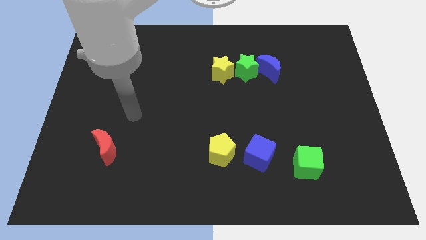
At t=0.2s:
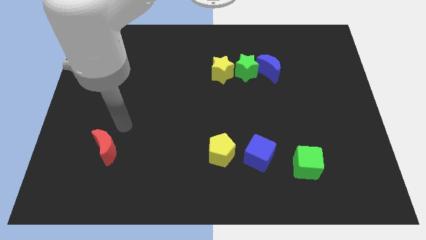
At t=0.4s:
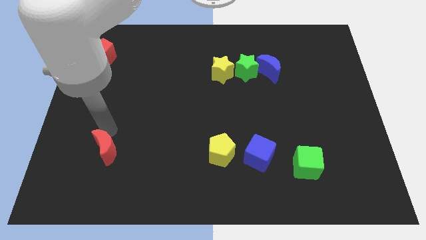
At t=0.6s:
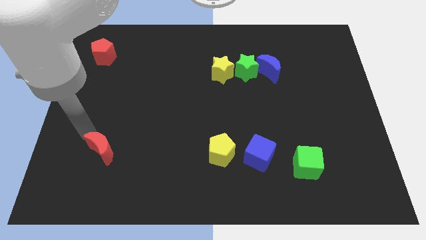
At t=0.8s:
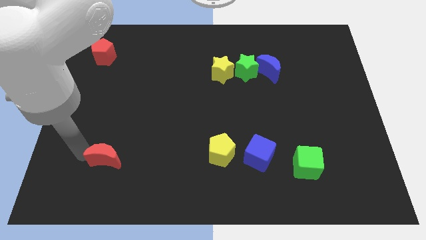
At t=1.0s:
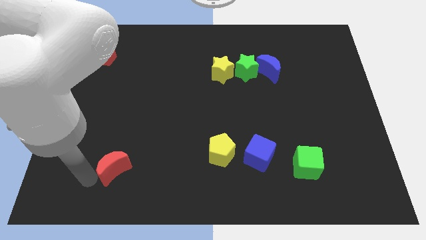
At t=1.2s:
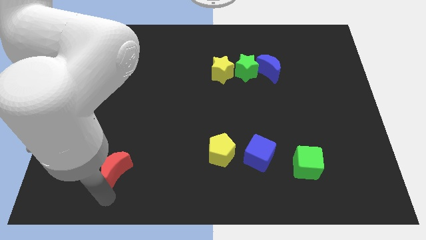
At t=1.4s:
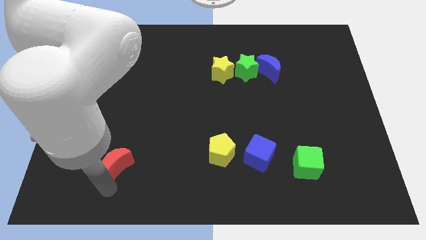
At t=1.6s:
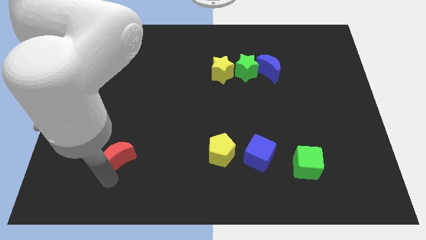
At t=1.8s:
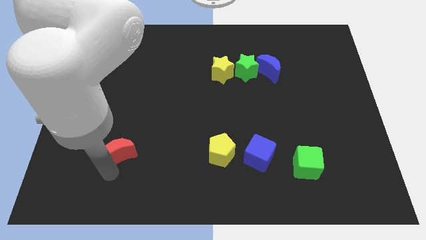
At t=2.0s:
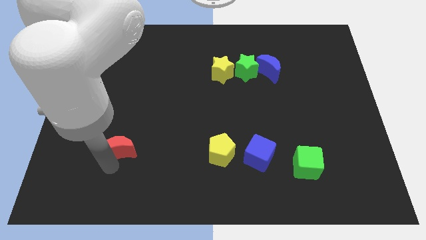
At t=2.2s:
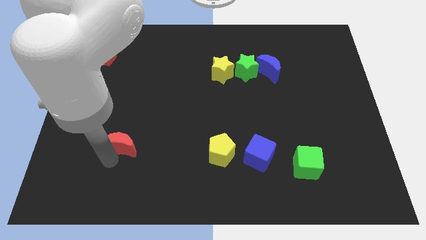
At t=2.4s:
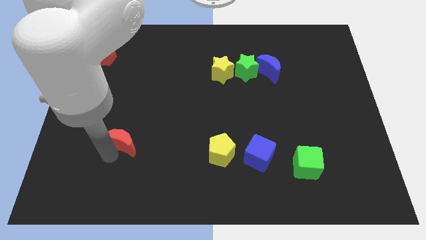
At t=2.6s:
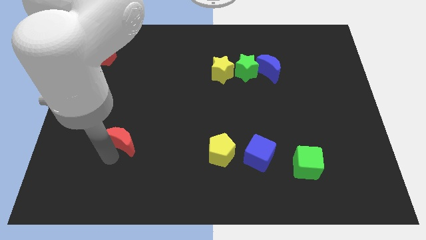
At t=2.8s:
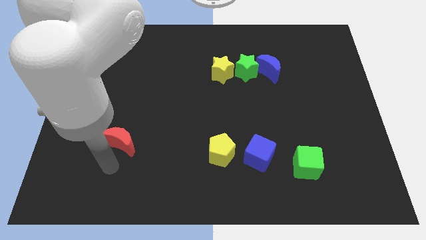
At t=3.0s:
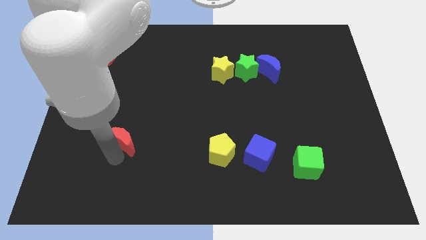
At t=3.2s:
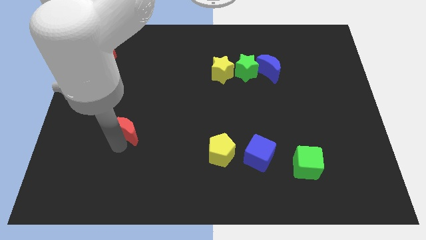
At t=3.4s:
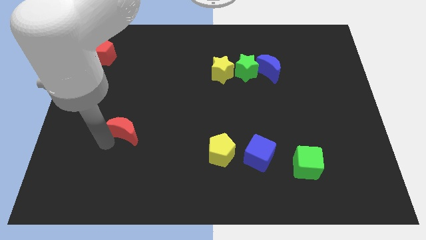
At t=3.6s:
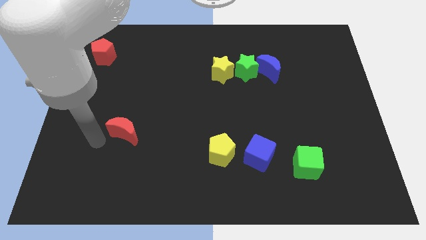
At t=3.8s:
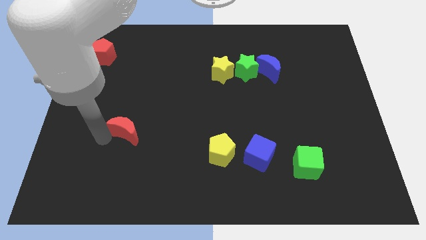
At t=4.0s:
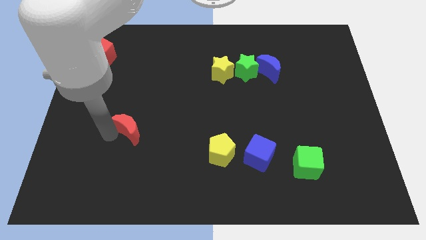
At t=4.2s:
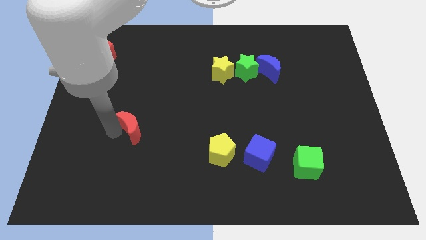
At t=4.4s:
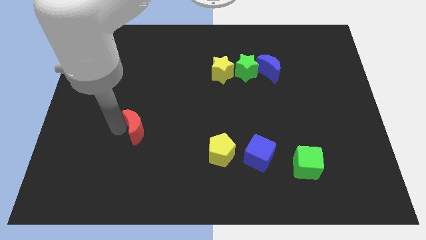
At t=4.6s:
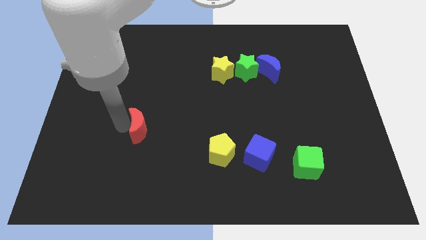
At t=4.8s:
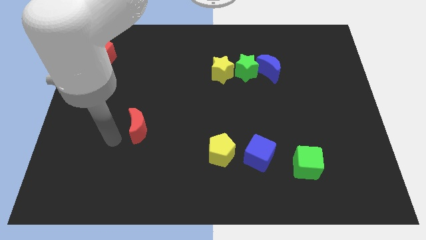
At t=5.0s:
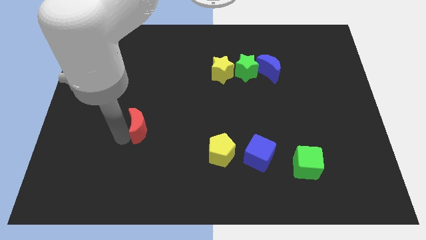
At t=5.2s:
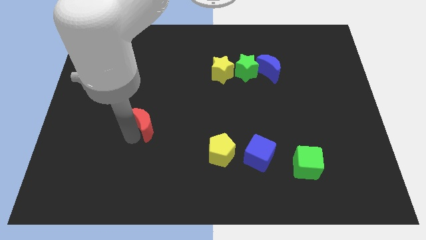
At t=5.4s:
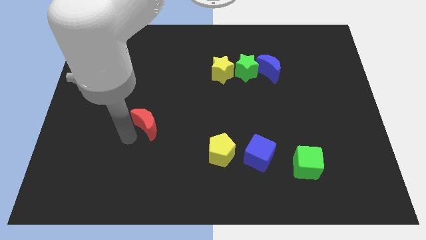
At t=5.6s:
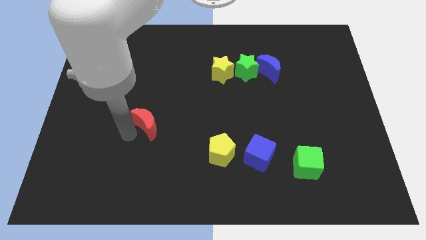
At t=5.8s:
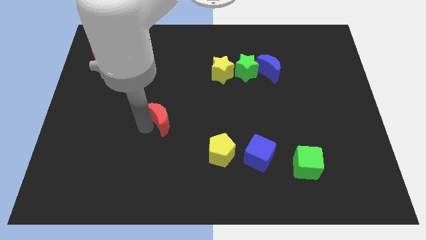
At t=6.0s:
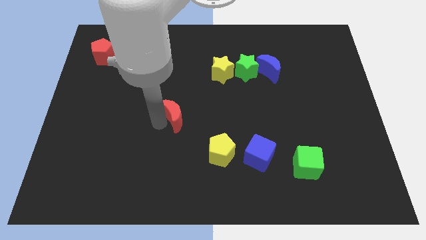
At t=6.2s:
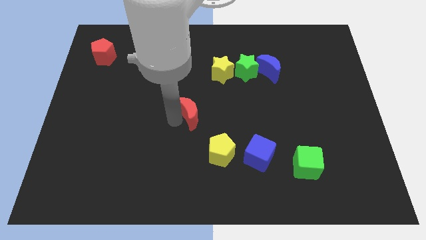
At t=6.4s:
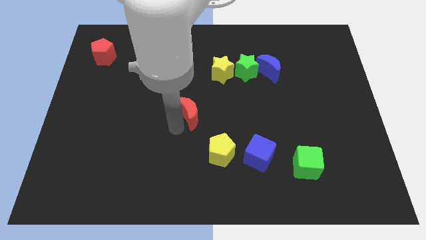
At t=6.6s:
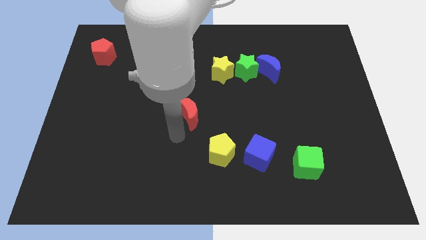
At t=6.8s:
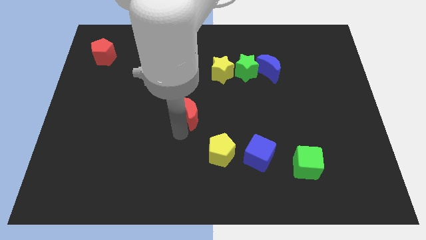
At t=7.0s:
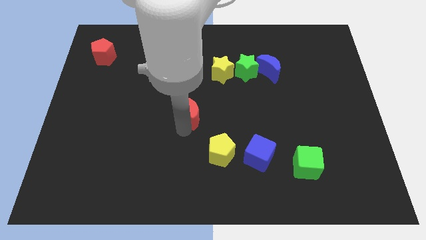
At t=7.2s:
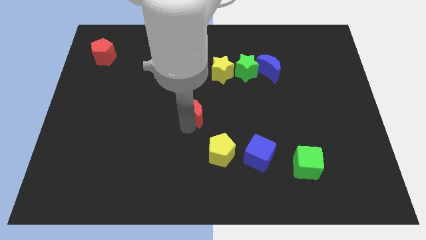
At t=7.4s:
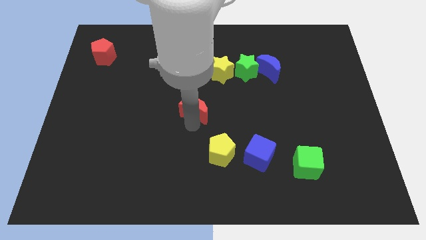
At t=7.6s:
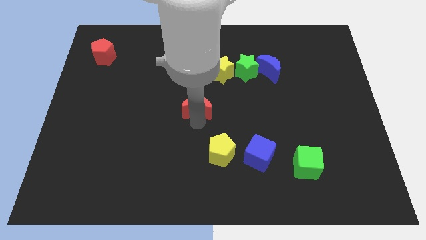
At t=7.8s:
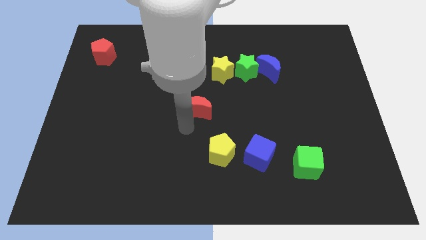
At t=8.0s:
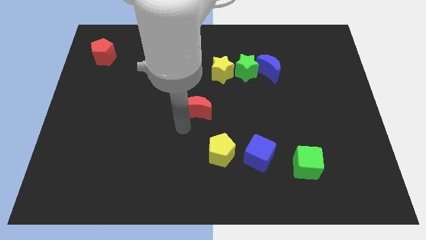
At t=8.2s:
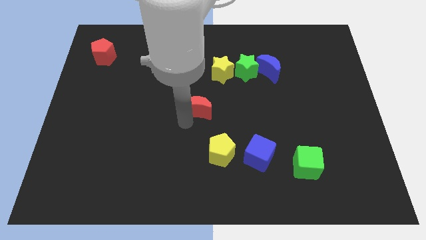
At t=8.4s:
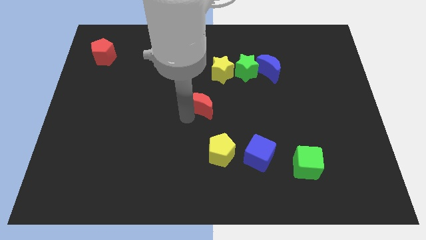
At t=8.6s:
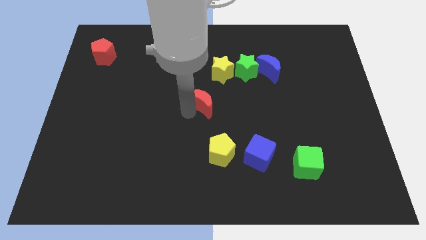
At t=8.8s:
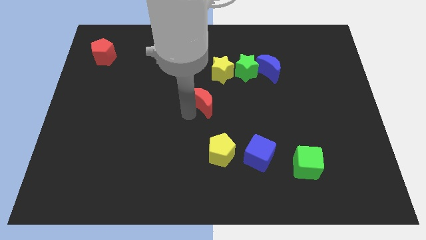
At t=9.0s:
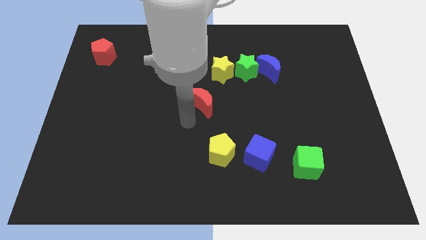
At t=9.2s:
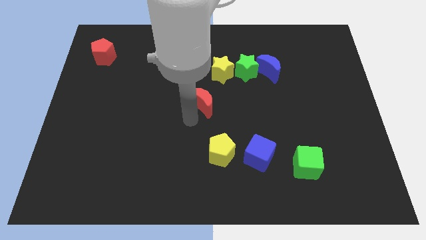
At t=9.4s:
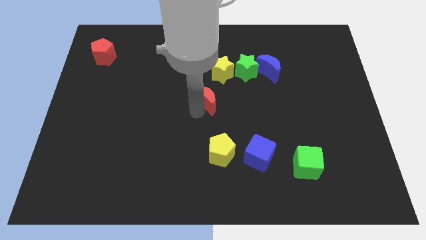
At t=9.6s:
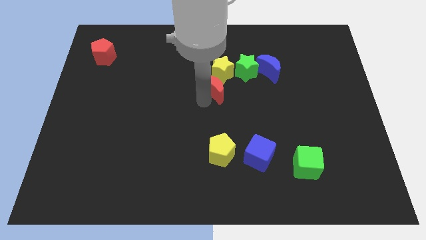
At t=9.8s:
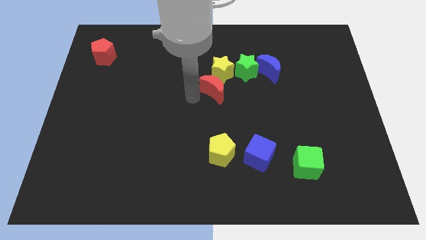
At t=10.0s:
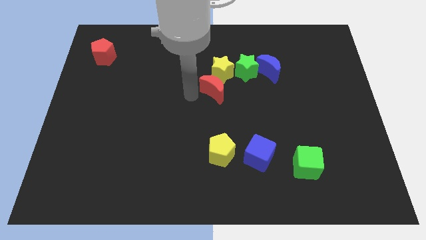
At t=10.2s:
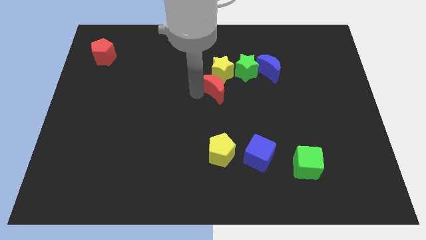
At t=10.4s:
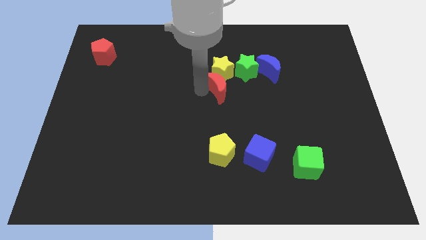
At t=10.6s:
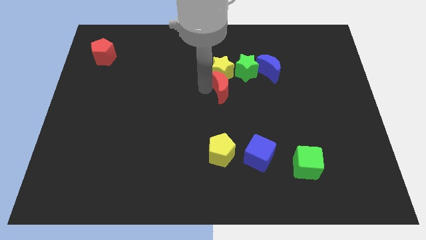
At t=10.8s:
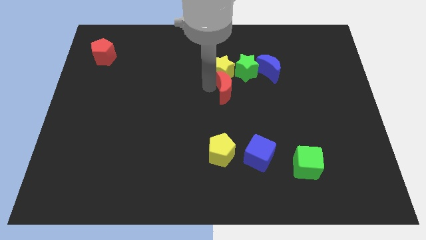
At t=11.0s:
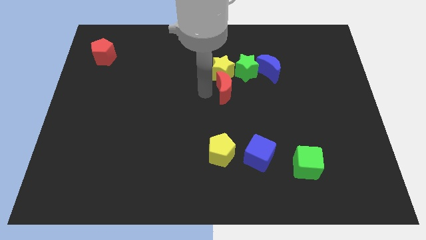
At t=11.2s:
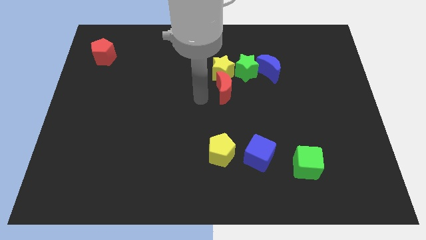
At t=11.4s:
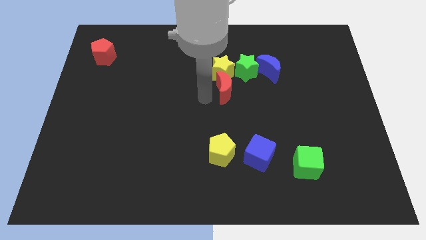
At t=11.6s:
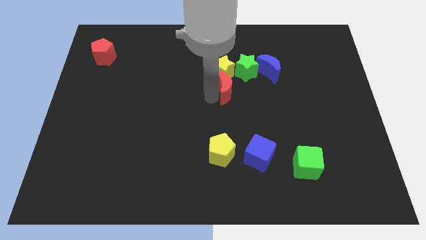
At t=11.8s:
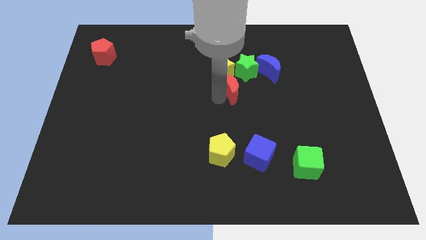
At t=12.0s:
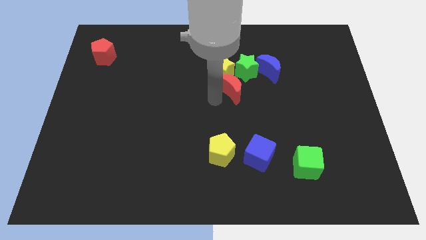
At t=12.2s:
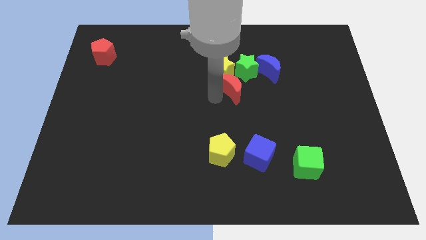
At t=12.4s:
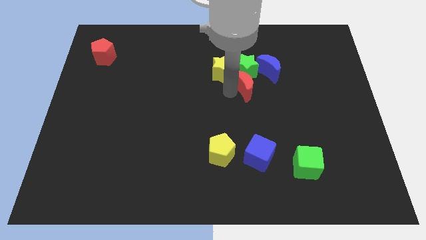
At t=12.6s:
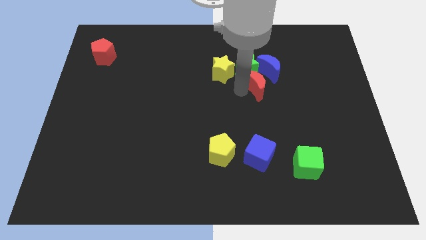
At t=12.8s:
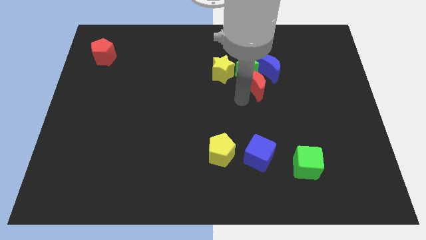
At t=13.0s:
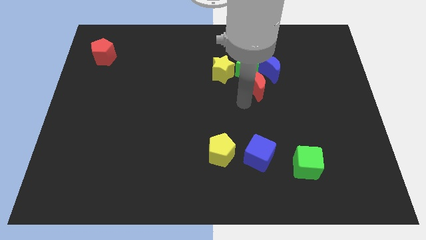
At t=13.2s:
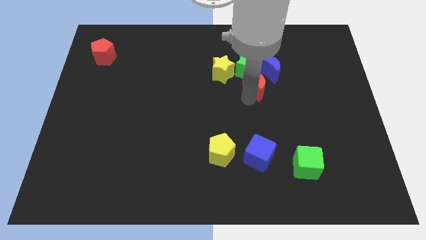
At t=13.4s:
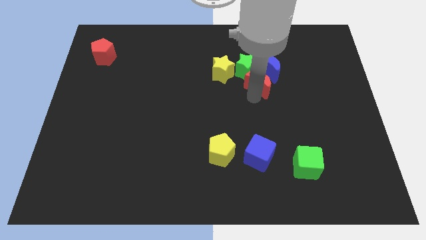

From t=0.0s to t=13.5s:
slide the red moon next to the blue moon

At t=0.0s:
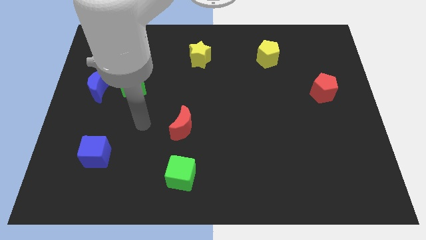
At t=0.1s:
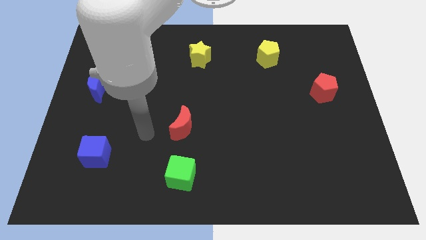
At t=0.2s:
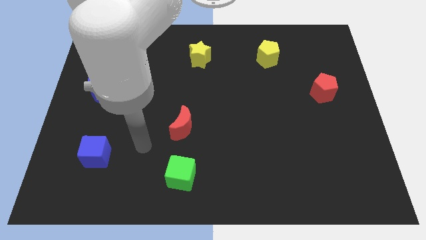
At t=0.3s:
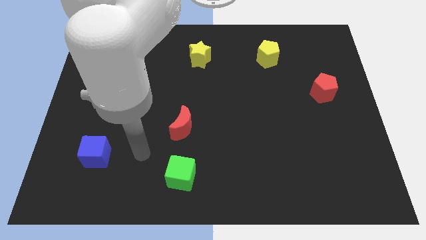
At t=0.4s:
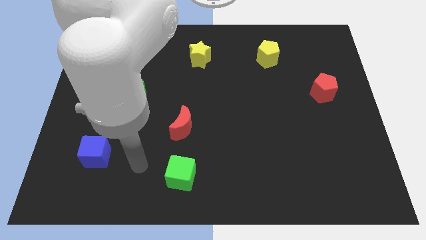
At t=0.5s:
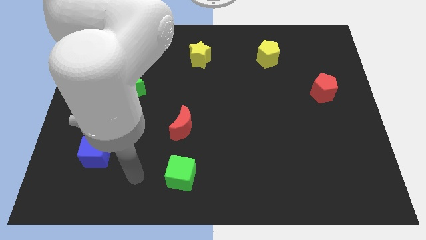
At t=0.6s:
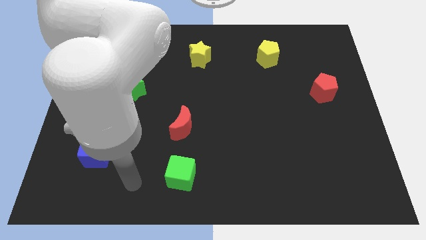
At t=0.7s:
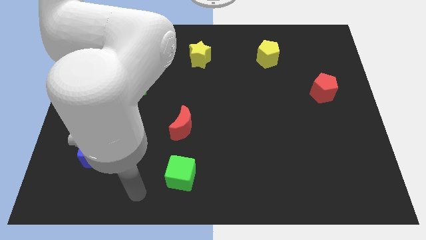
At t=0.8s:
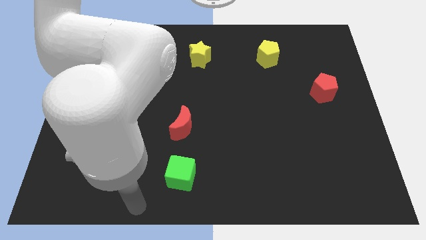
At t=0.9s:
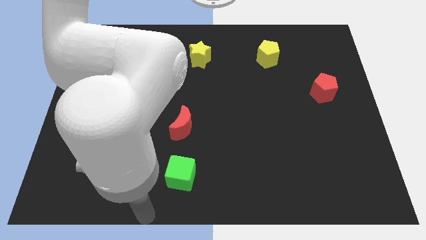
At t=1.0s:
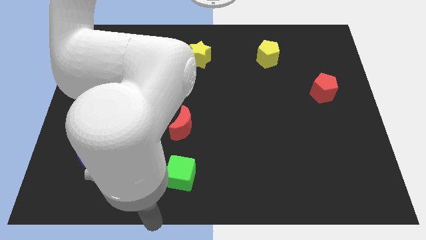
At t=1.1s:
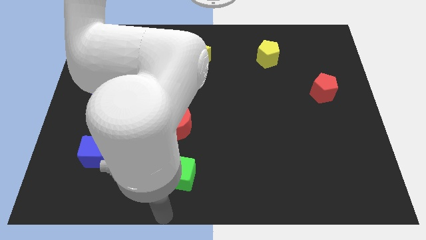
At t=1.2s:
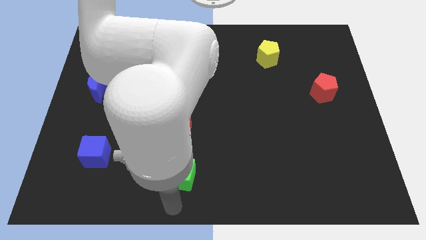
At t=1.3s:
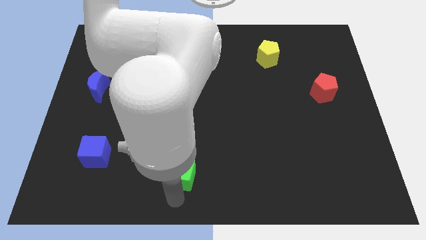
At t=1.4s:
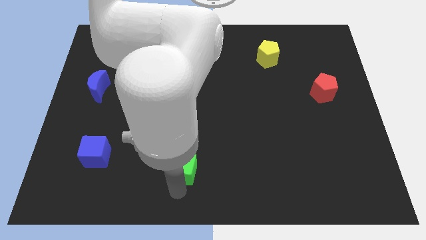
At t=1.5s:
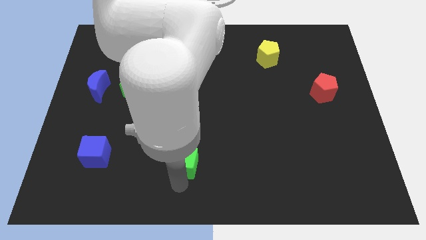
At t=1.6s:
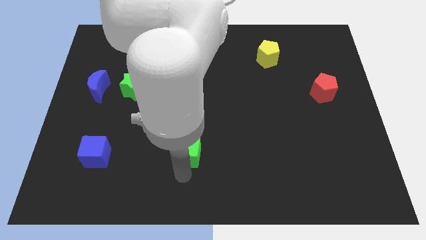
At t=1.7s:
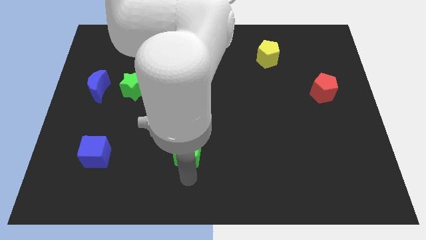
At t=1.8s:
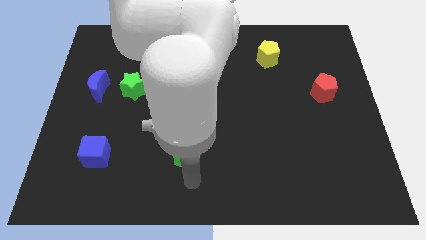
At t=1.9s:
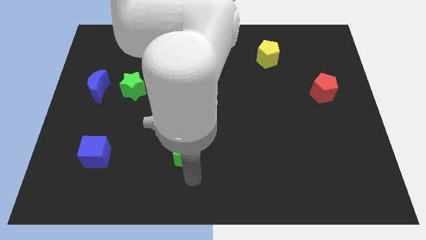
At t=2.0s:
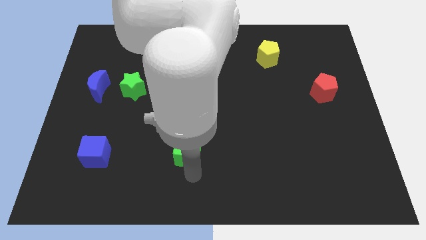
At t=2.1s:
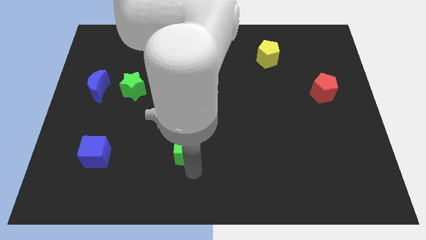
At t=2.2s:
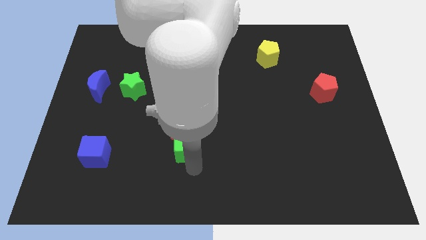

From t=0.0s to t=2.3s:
put the green cube close to the red moon
